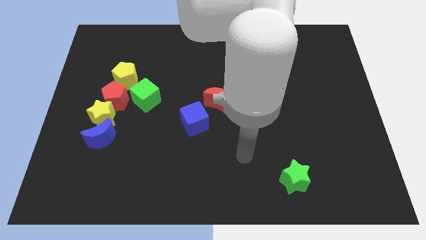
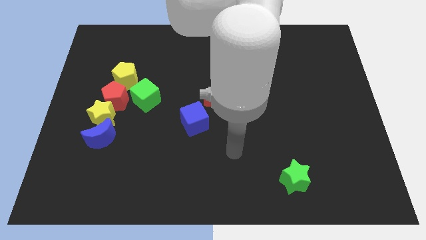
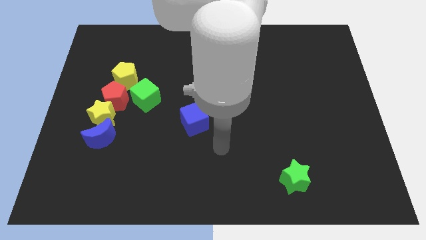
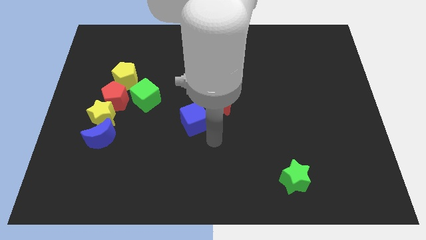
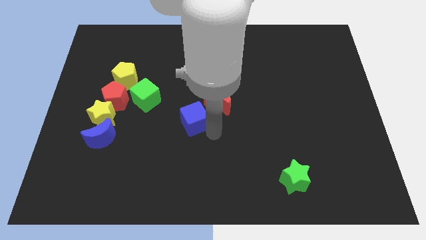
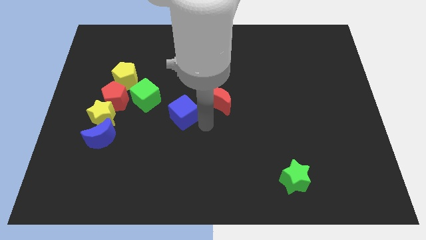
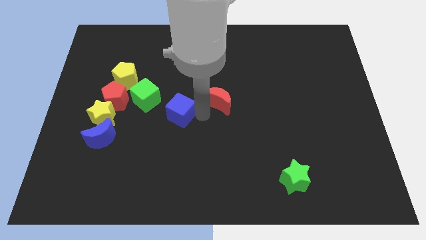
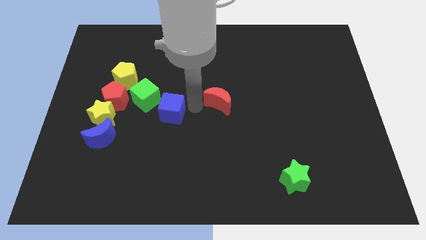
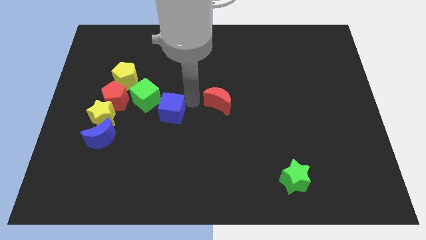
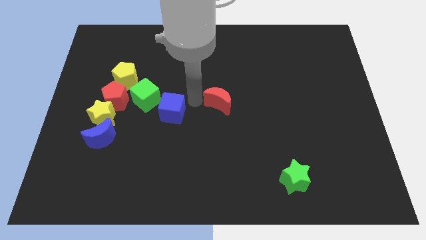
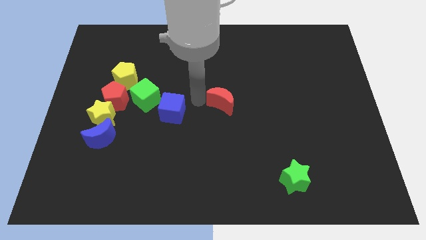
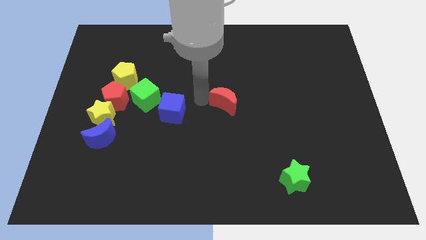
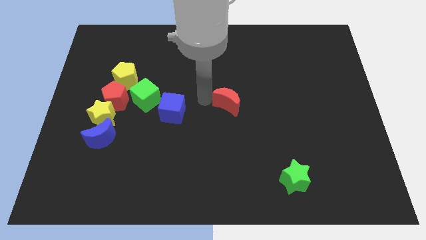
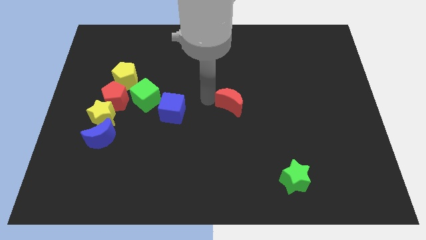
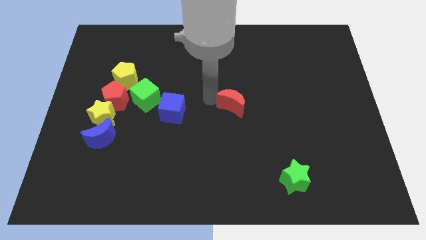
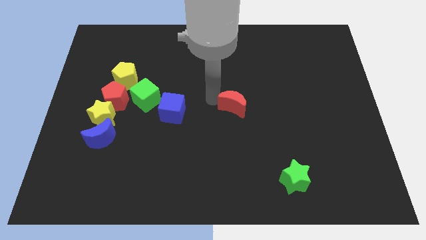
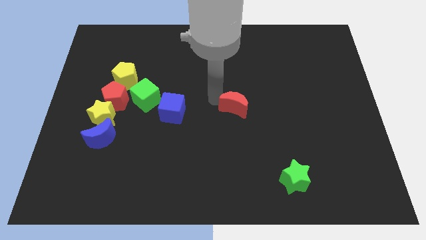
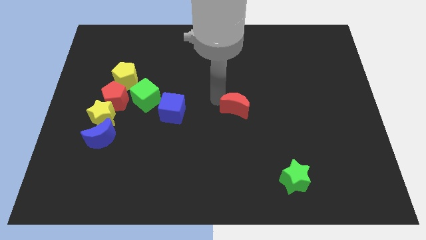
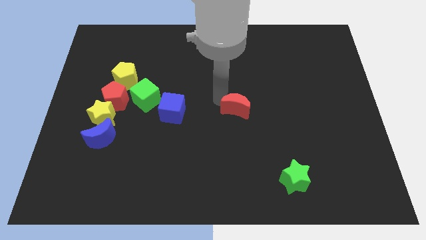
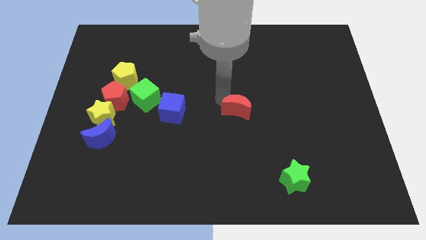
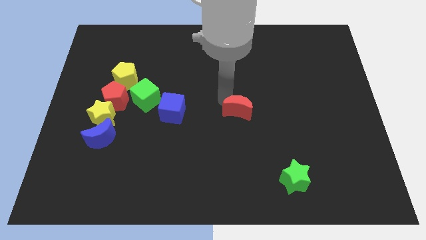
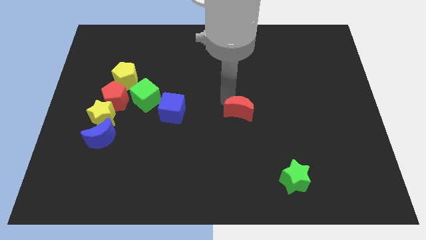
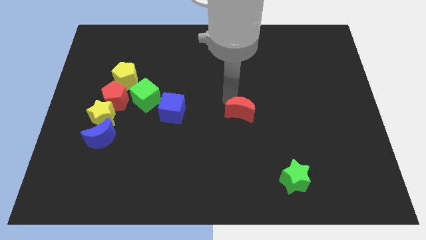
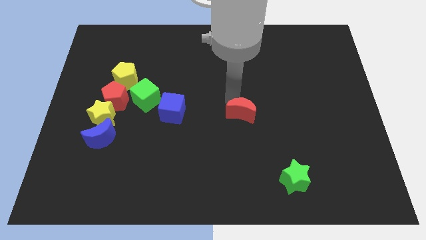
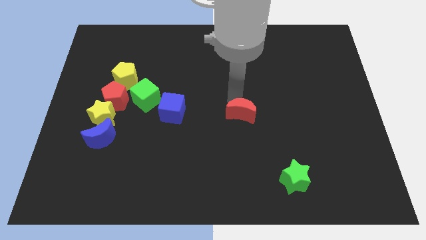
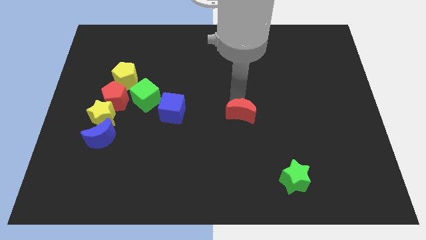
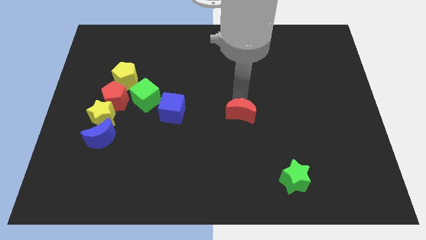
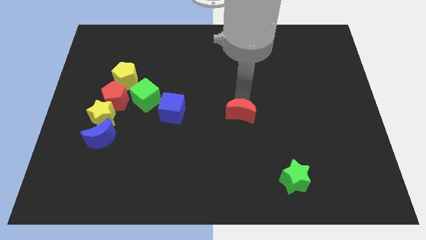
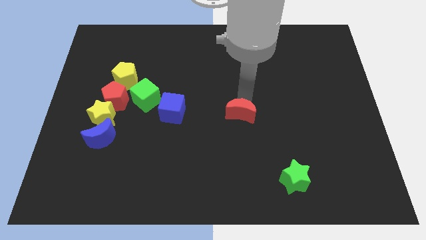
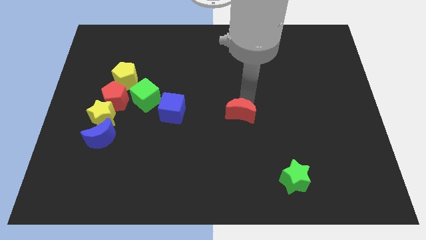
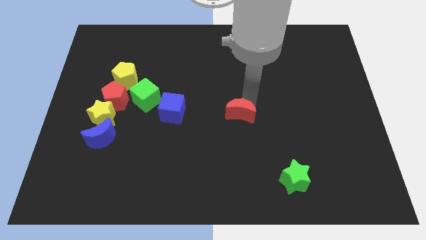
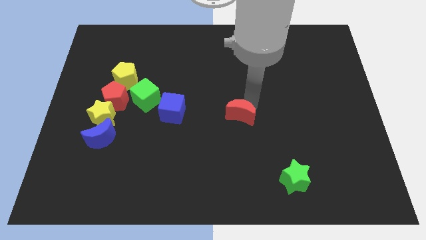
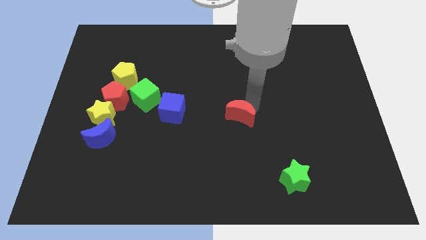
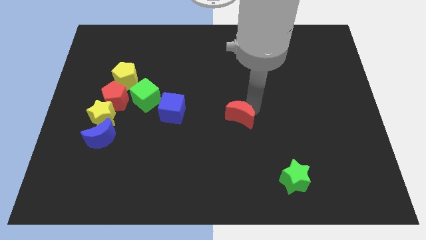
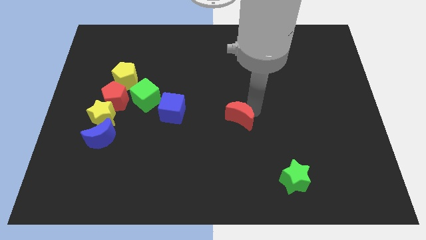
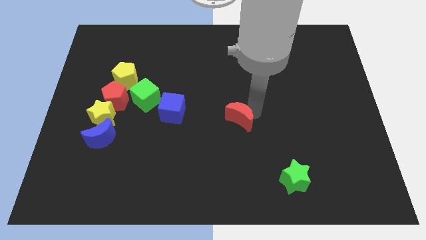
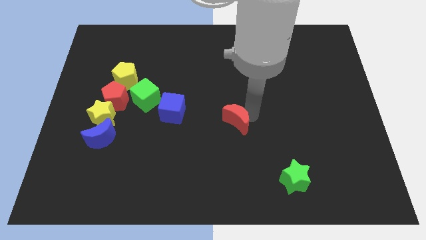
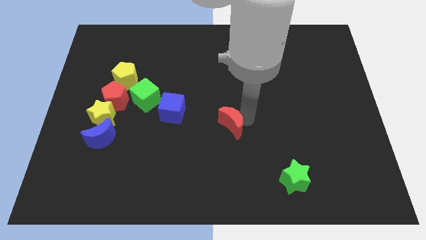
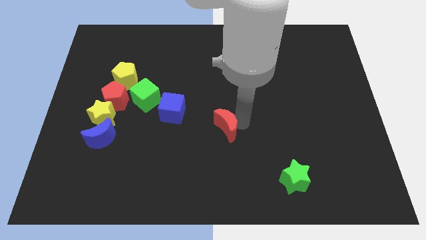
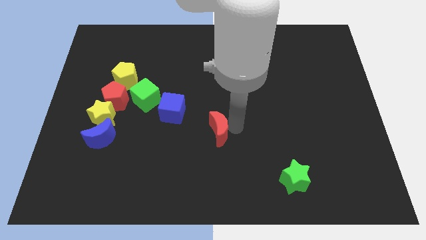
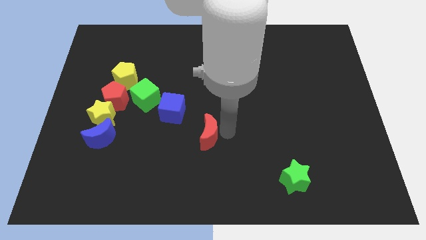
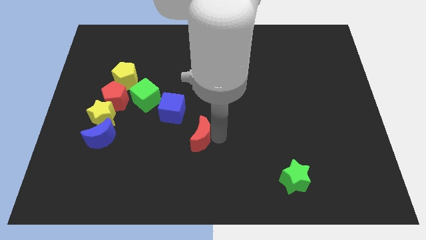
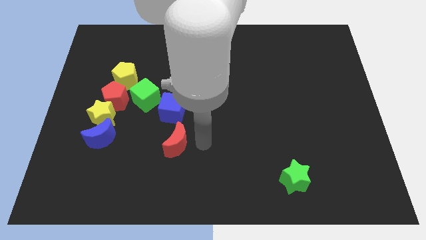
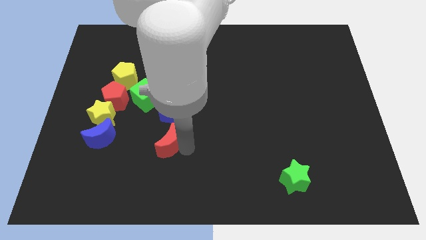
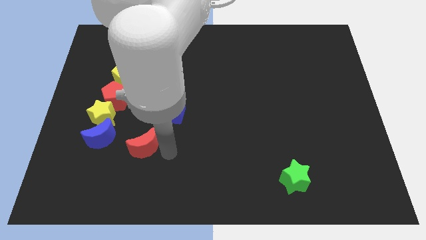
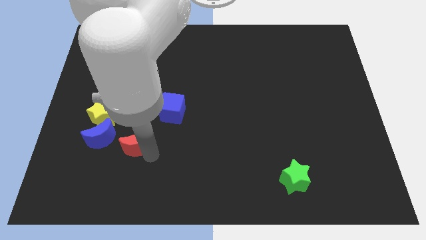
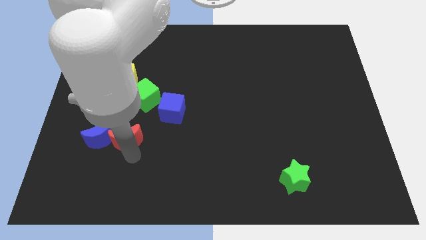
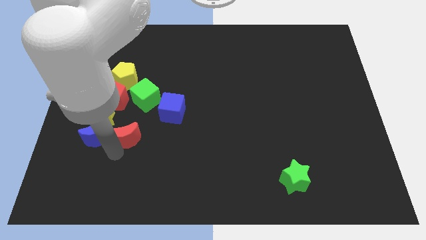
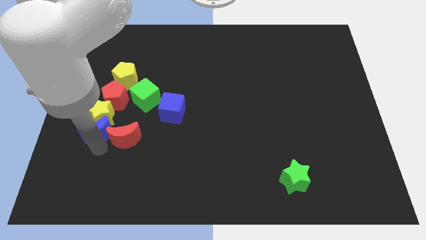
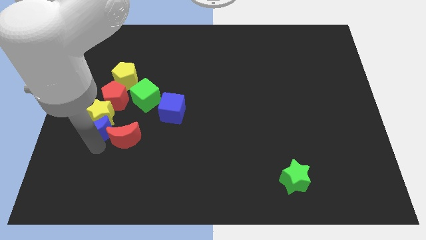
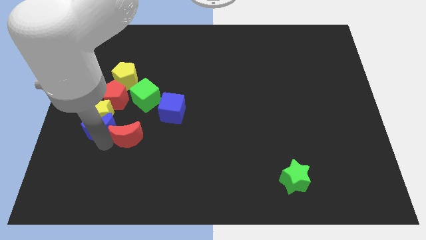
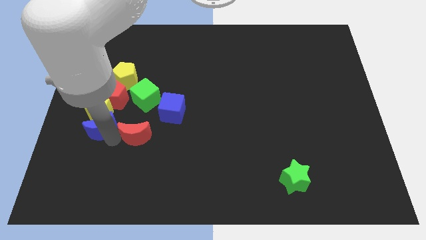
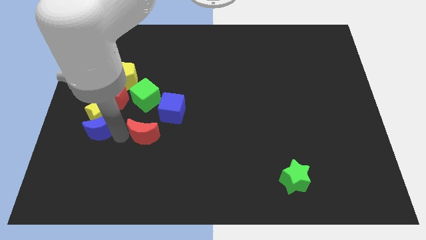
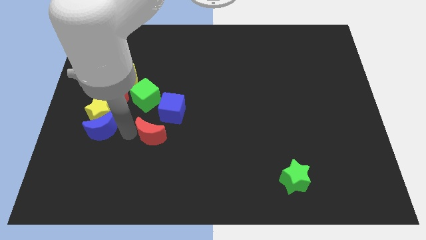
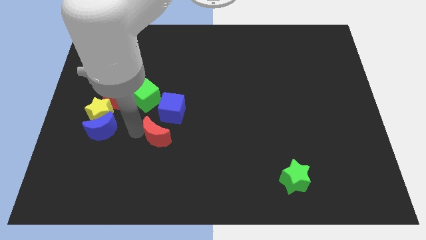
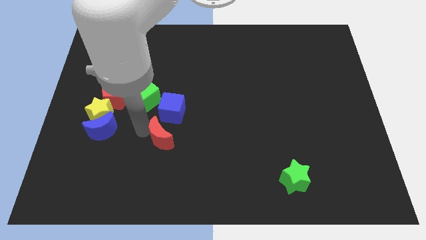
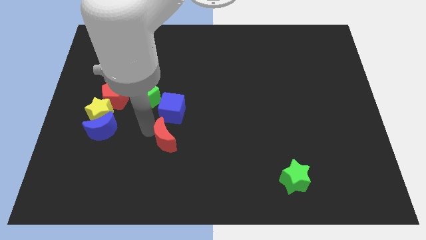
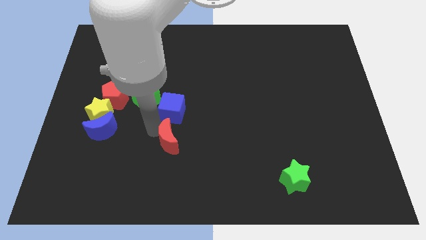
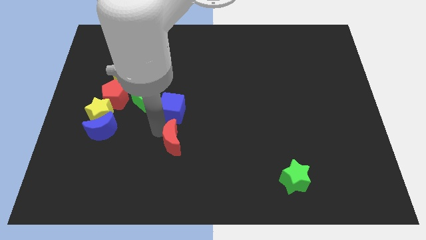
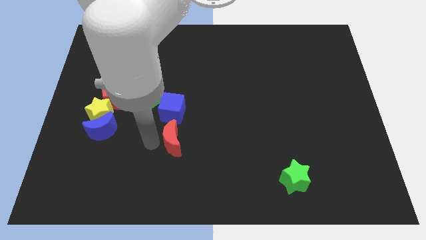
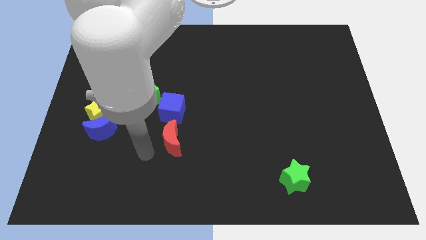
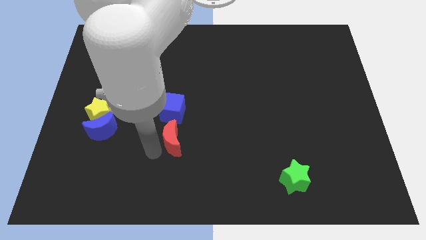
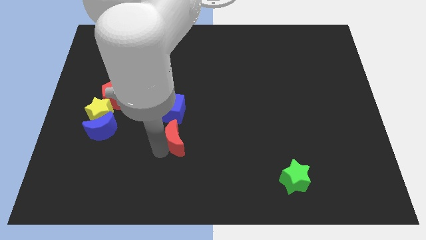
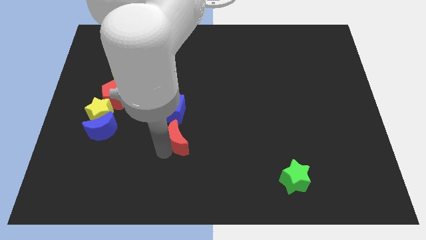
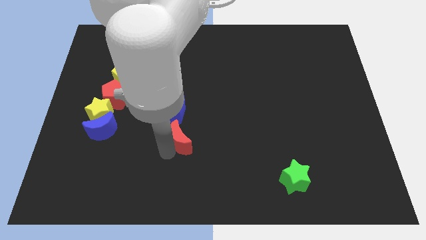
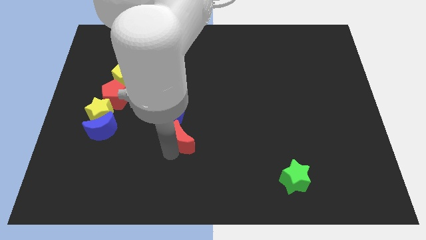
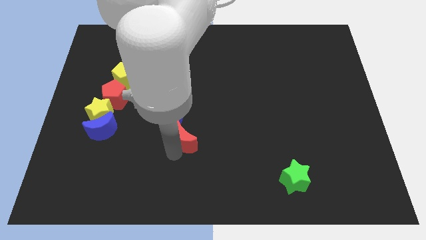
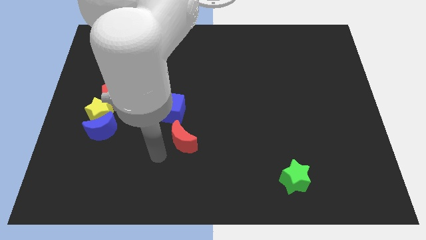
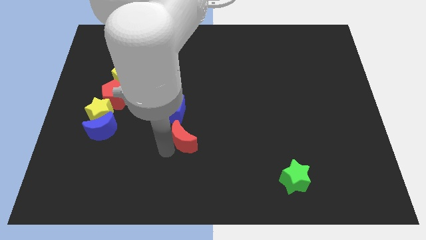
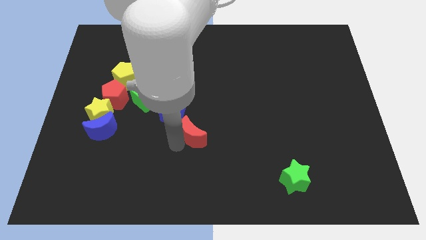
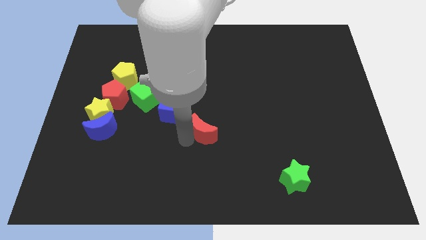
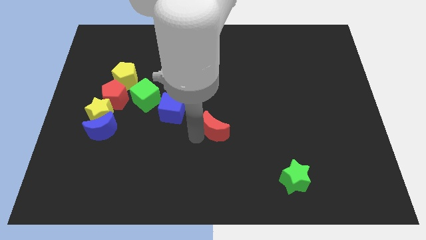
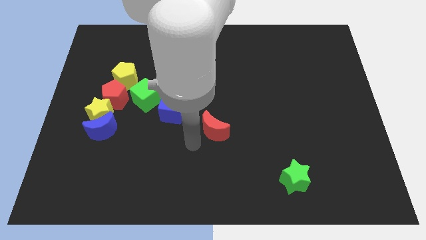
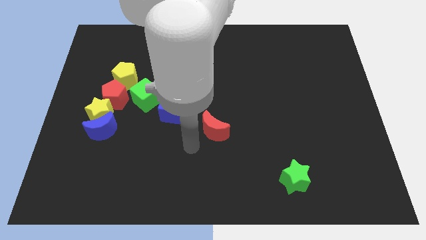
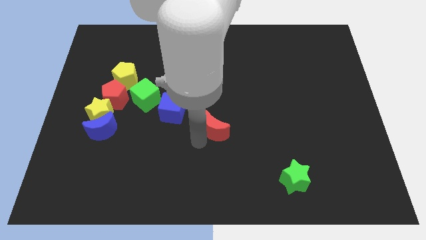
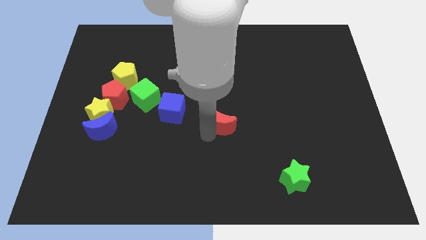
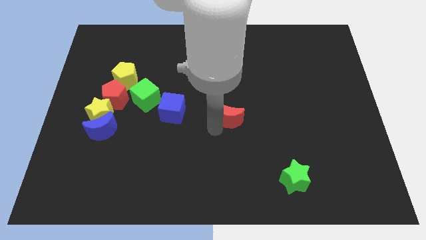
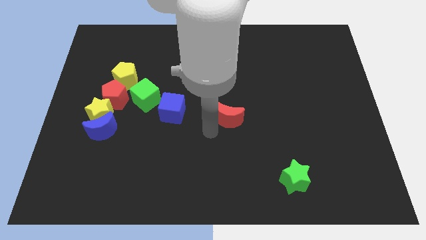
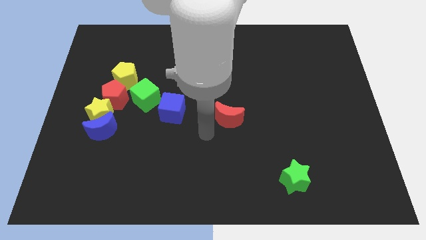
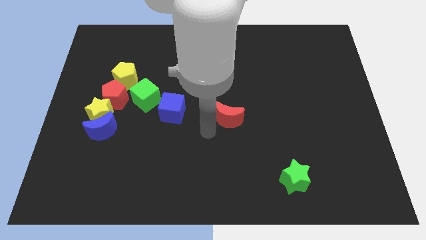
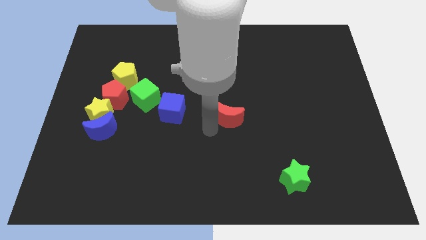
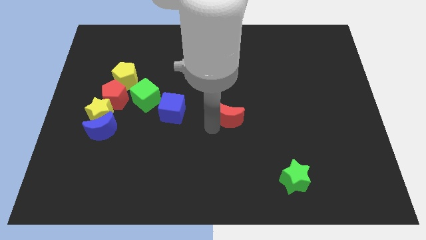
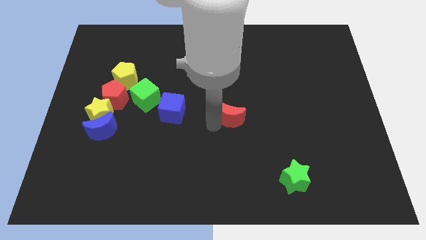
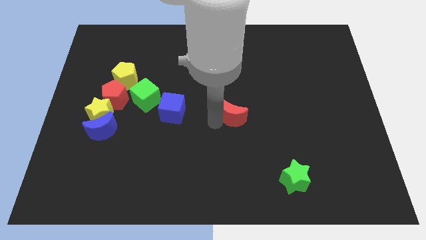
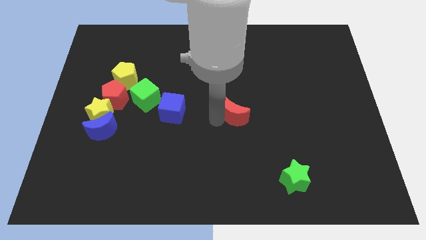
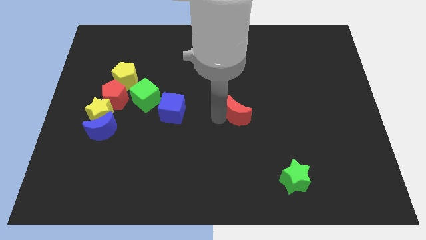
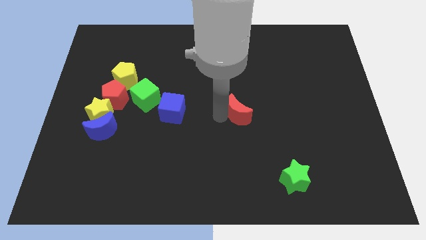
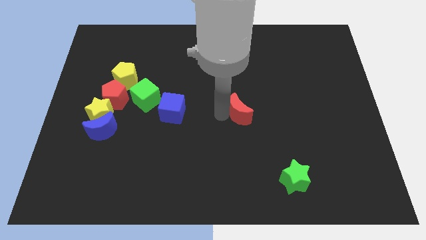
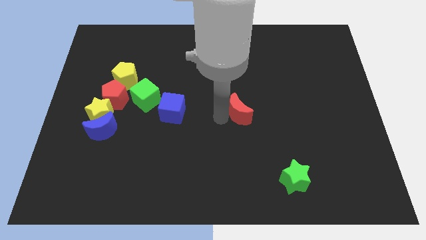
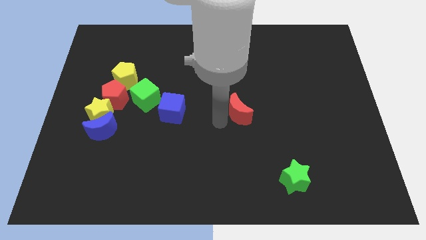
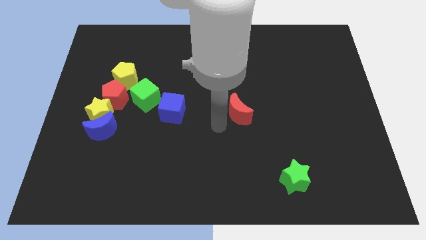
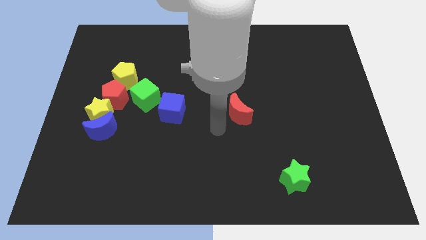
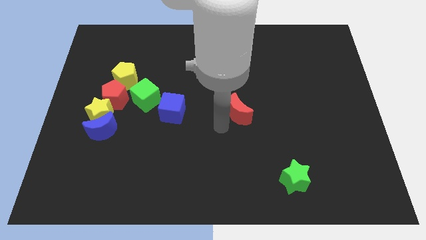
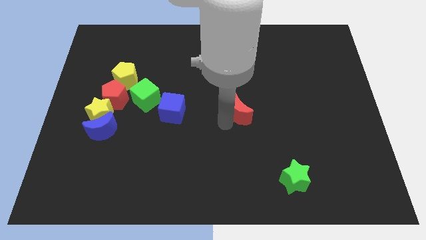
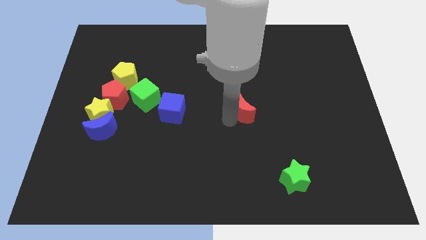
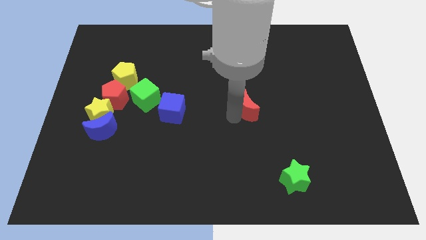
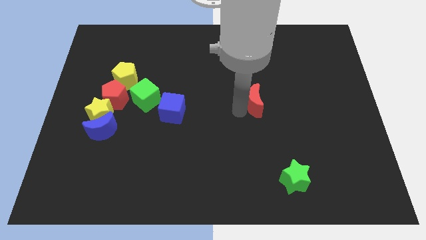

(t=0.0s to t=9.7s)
move the red moon somewhat right
